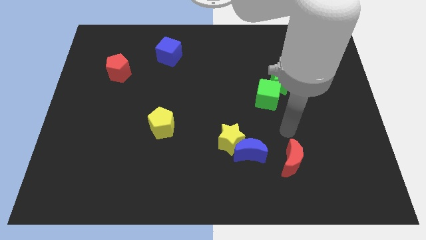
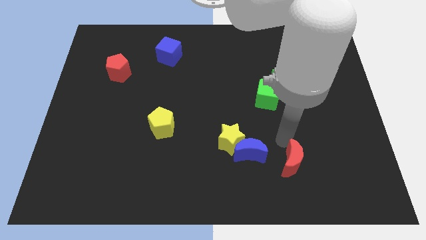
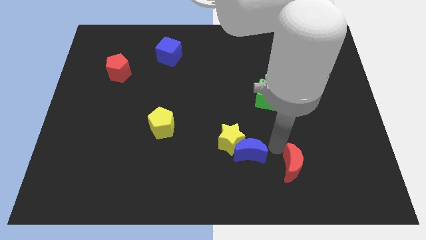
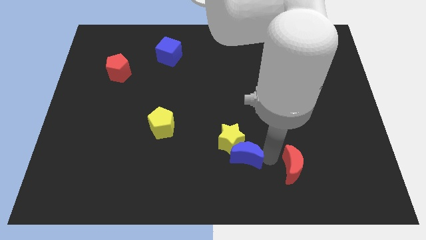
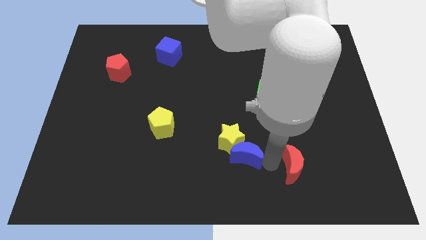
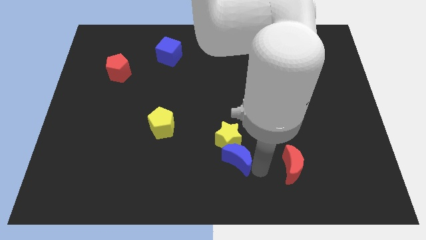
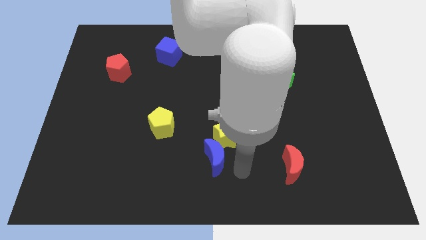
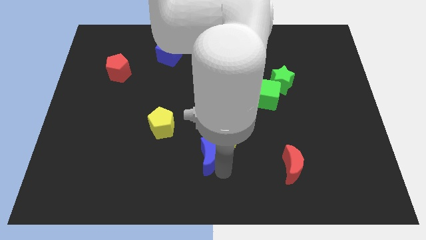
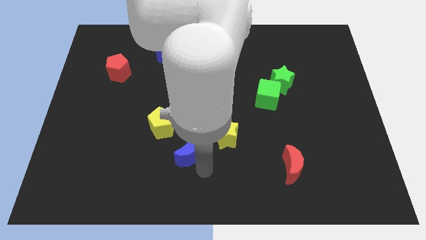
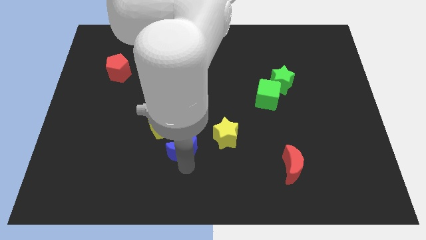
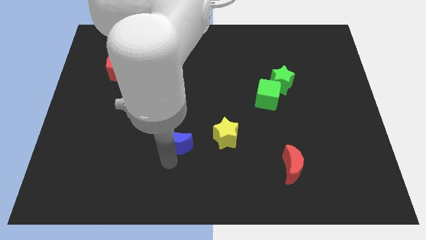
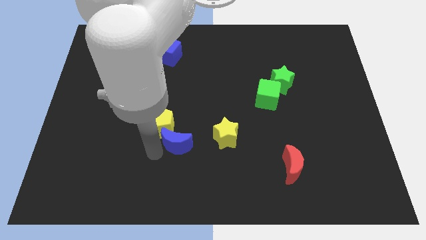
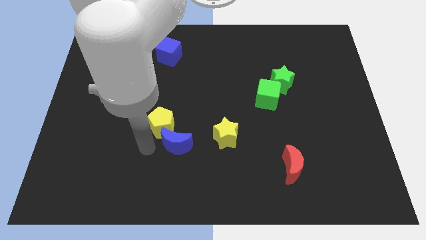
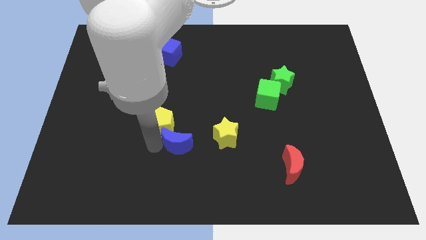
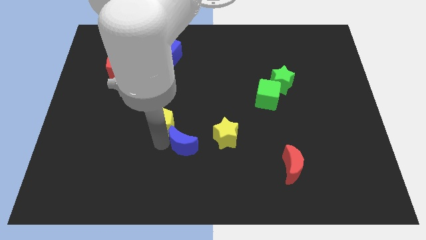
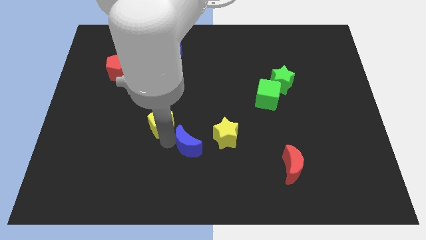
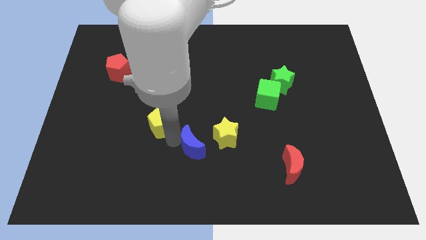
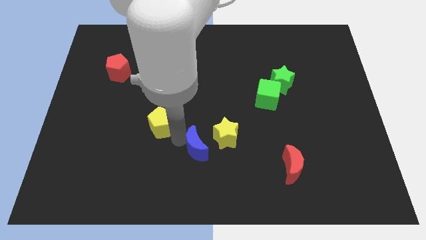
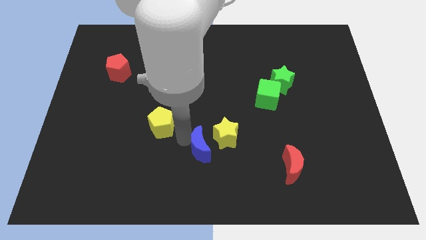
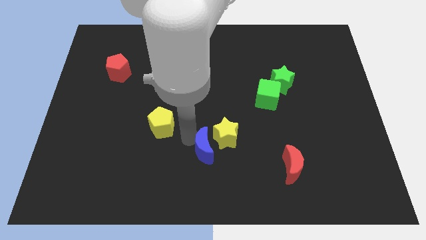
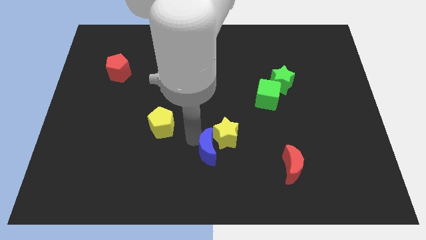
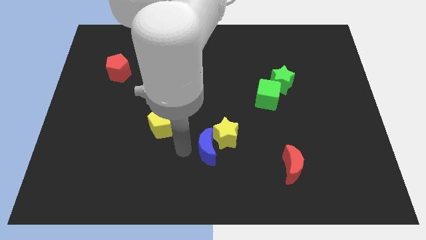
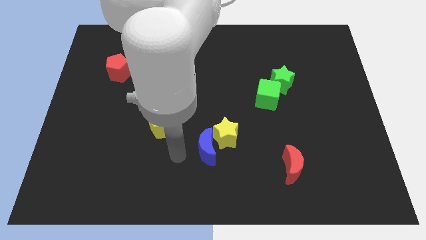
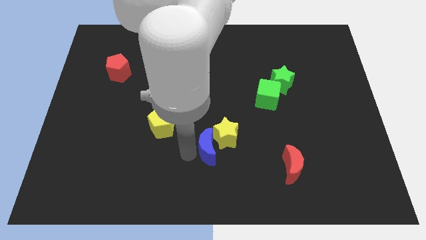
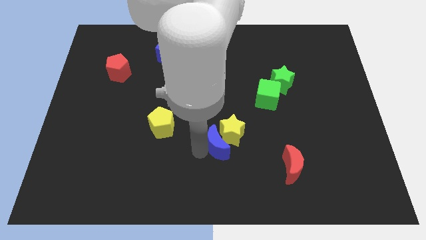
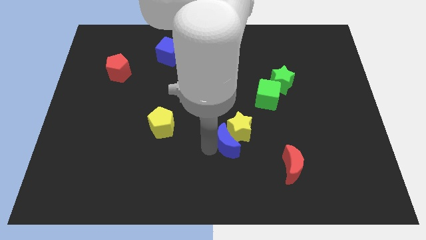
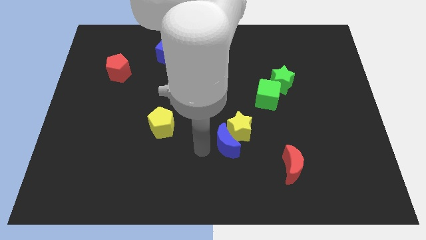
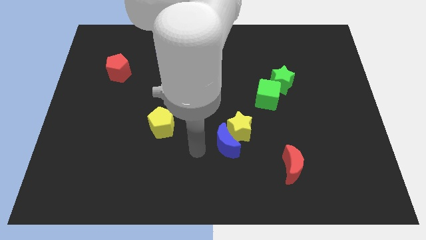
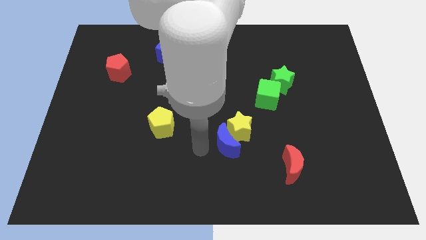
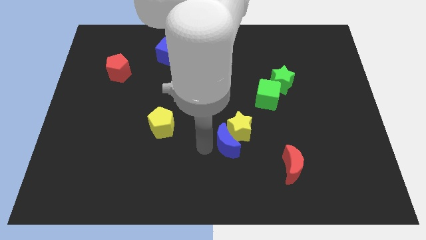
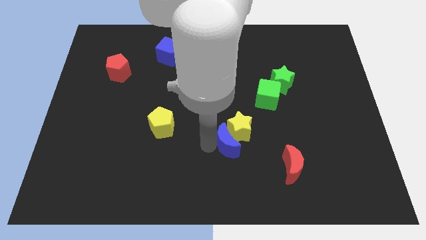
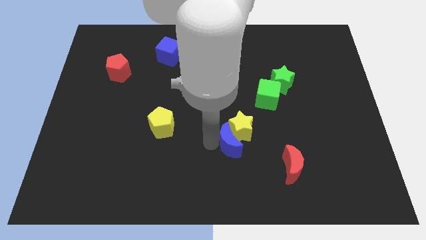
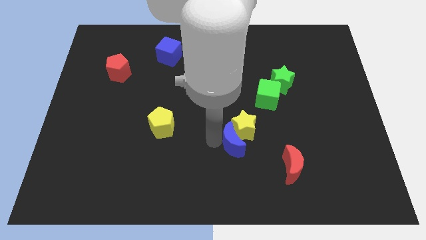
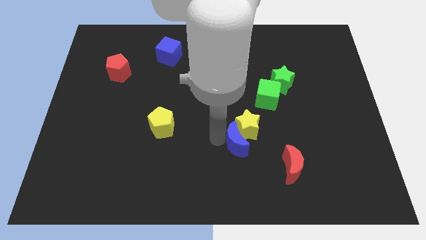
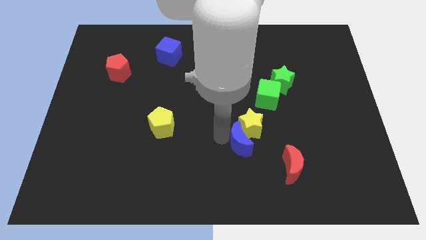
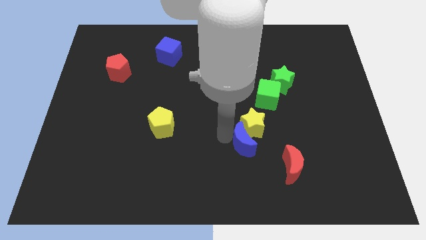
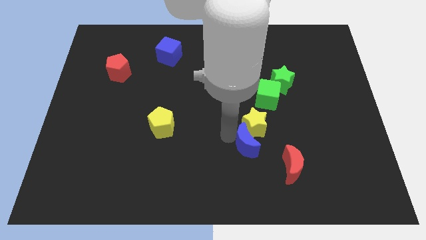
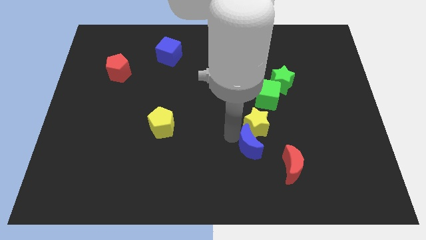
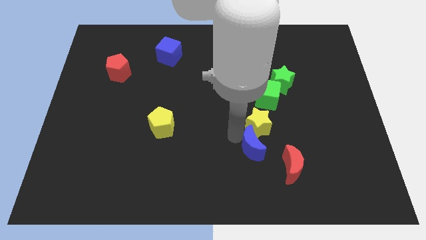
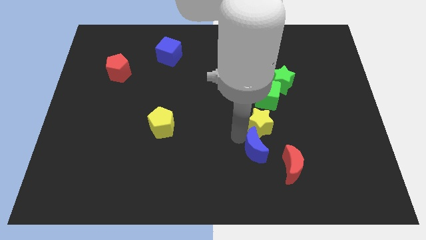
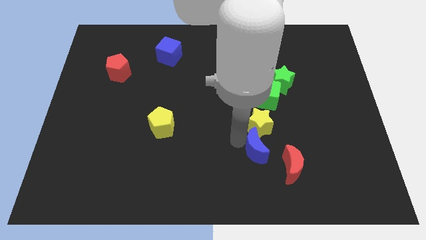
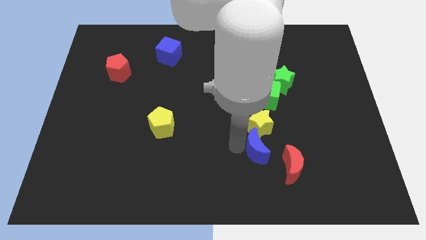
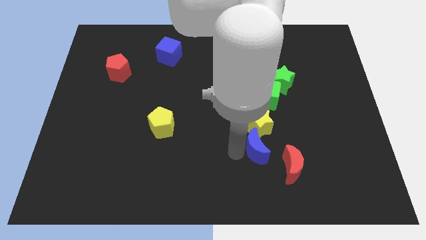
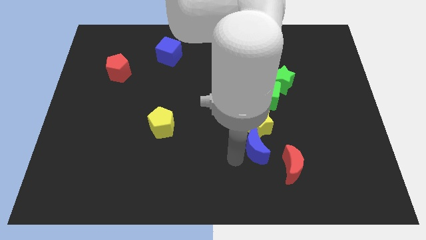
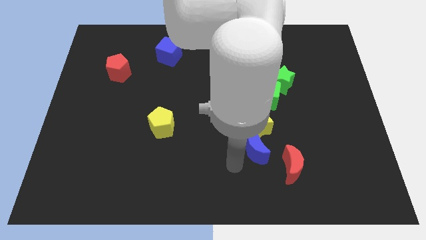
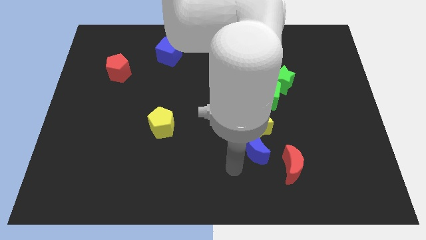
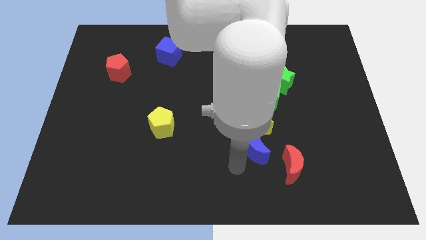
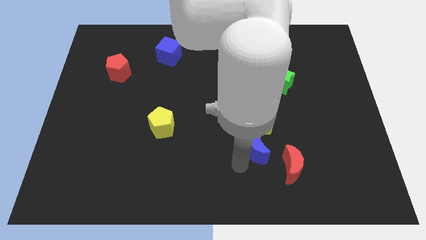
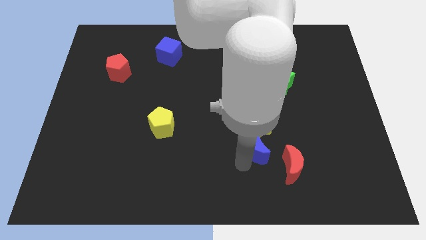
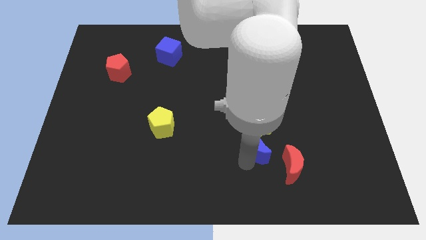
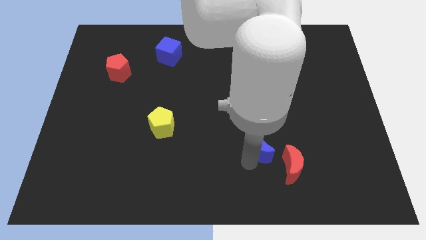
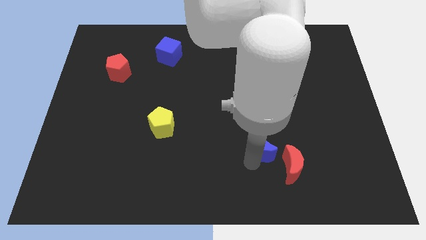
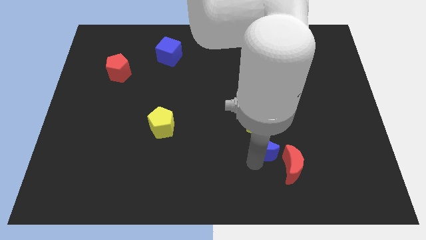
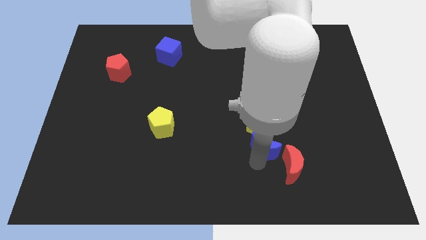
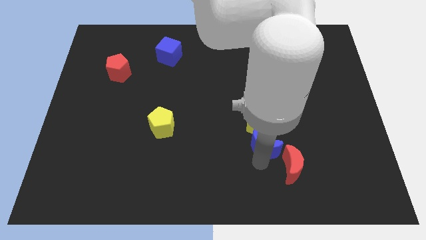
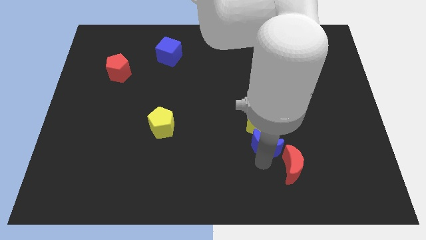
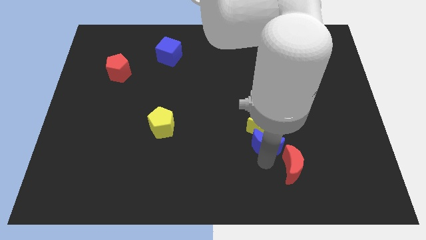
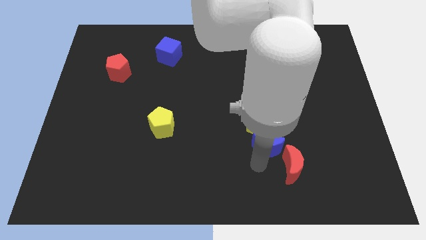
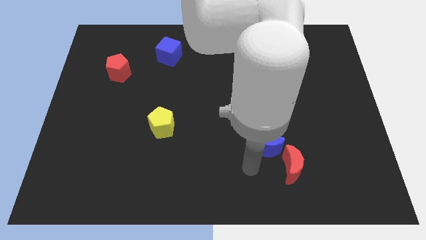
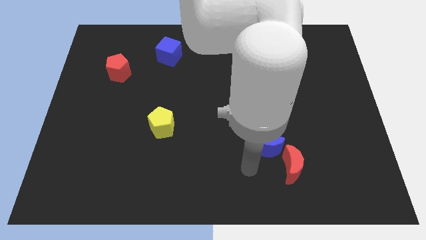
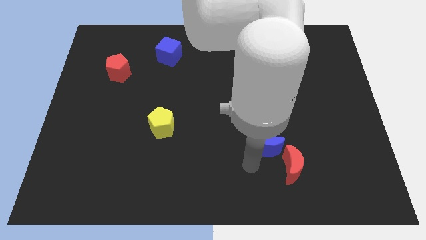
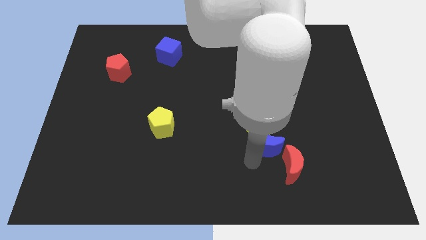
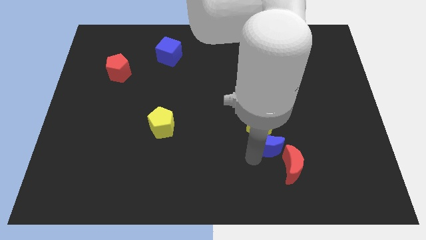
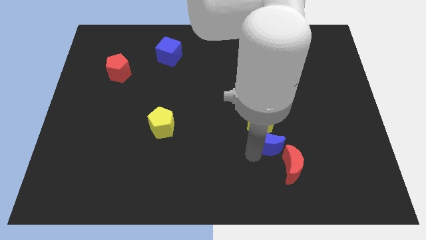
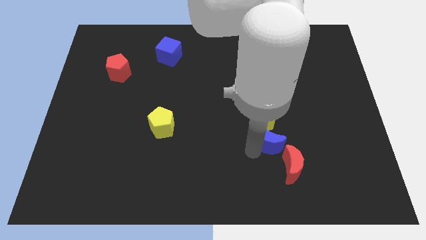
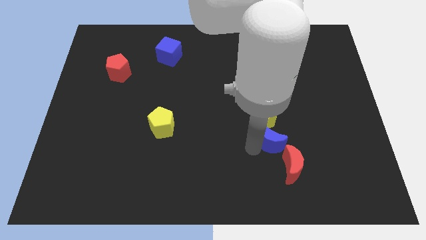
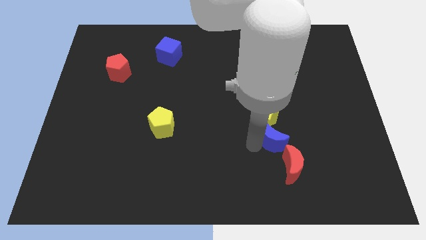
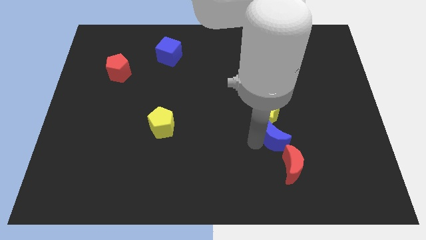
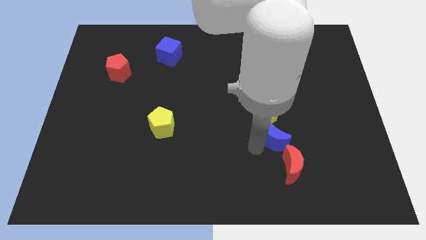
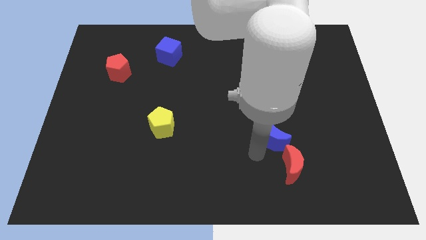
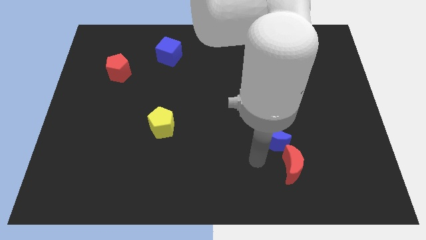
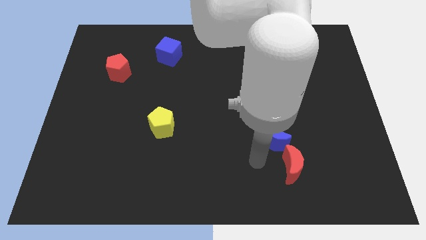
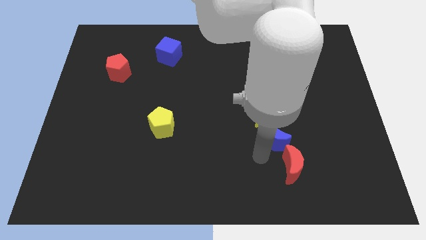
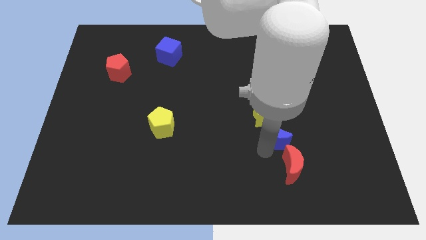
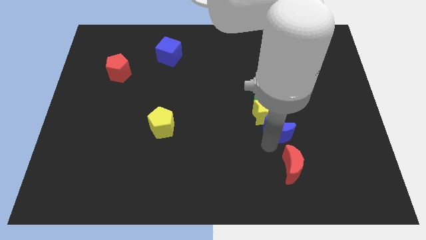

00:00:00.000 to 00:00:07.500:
push the blue moon a little upwards and to the right diagonally

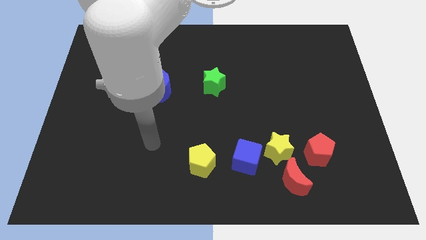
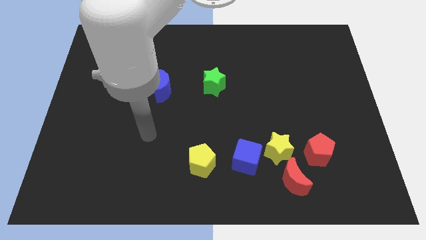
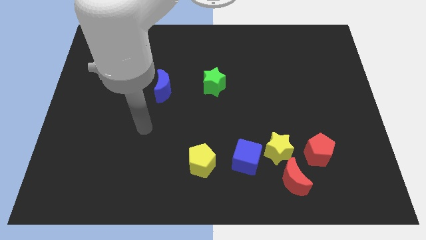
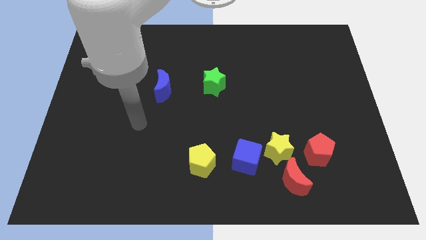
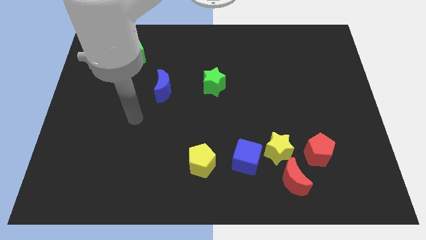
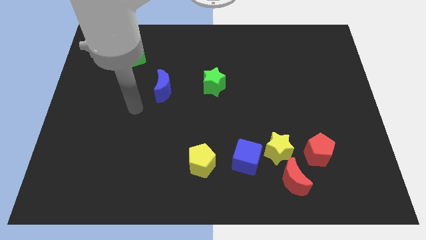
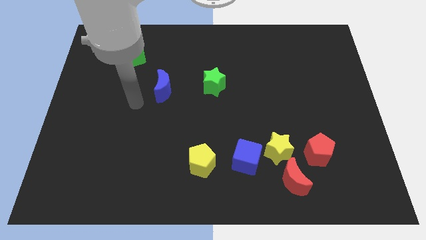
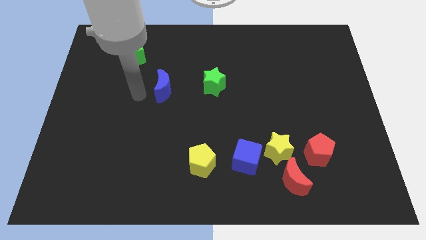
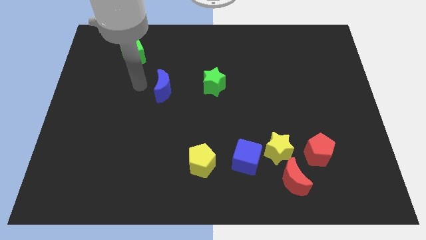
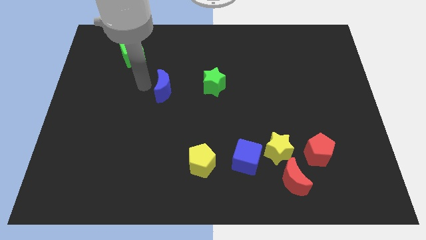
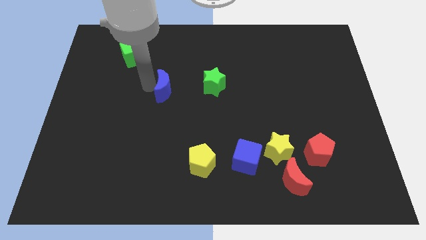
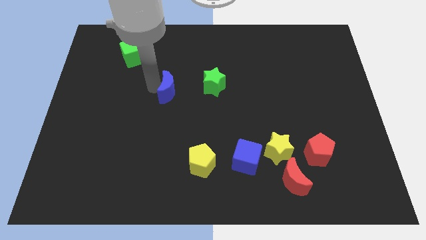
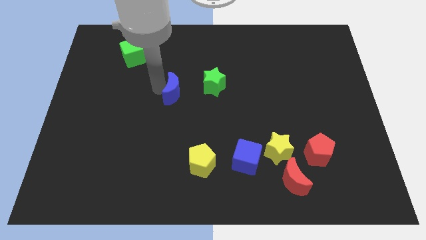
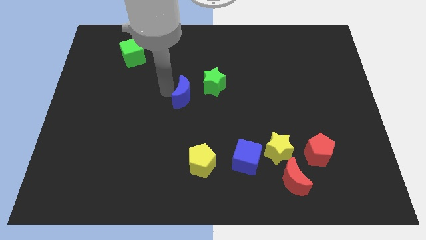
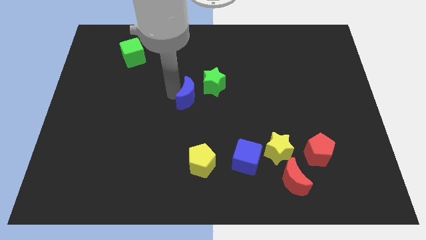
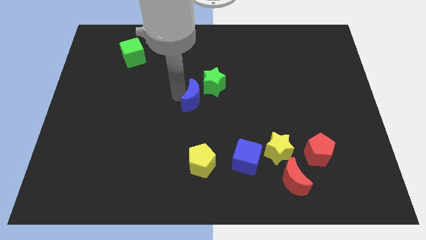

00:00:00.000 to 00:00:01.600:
slightly push the blue moon to the right
